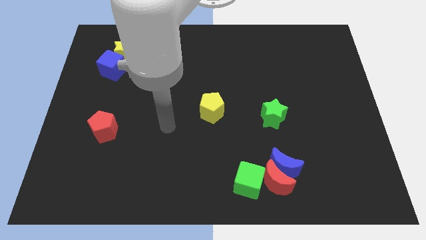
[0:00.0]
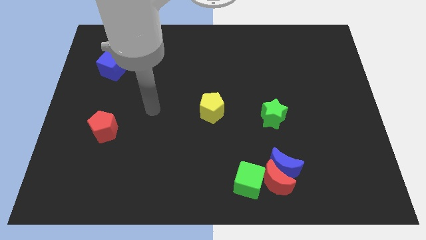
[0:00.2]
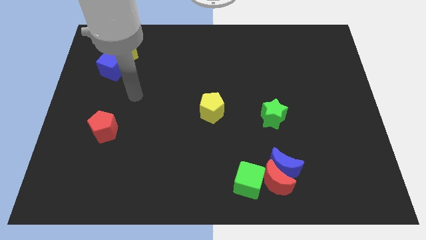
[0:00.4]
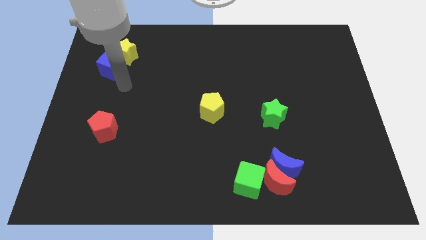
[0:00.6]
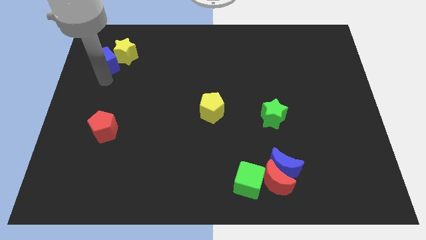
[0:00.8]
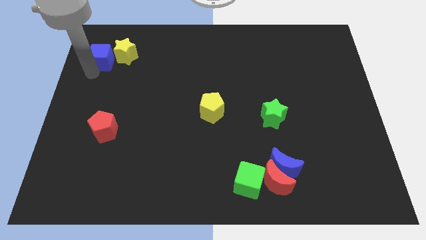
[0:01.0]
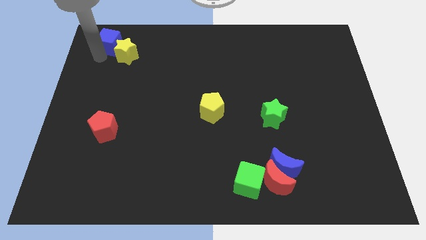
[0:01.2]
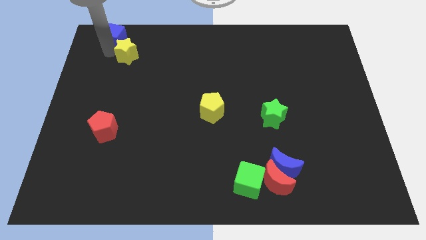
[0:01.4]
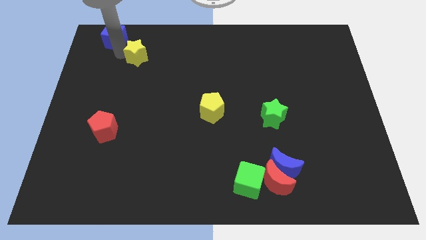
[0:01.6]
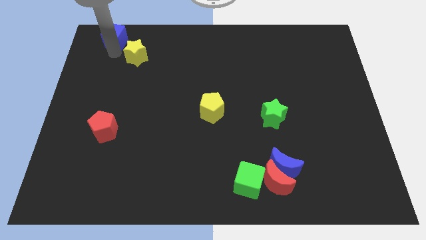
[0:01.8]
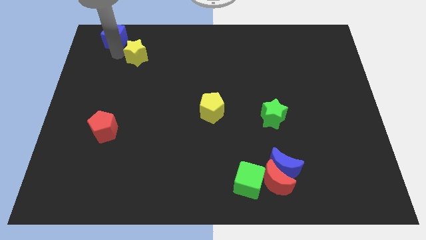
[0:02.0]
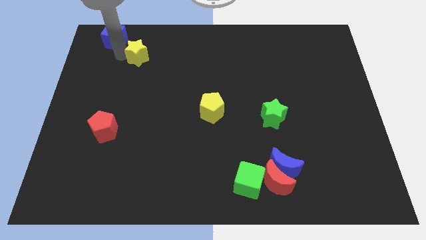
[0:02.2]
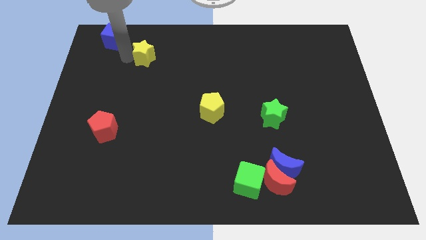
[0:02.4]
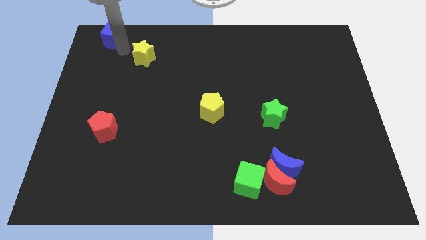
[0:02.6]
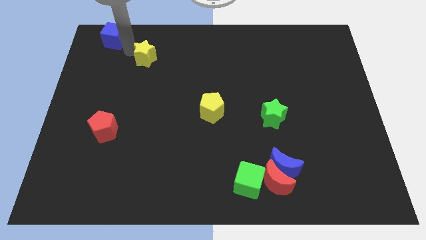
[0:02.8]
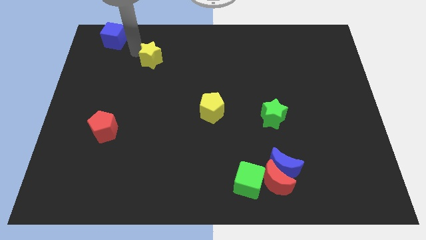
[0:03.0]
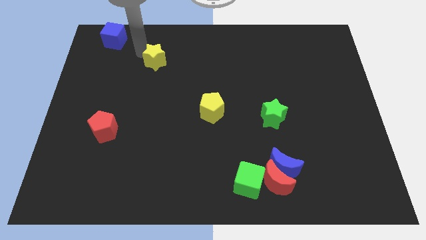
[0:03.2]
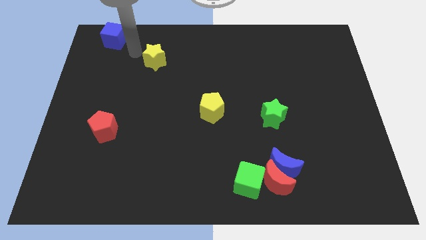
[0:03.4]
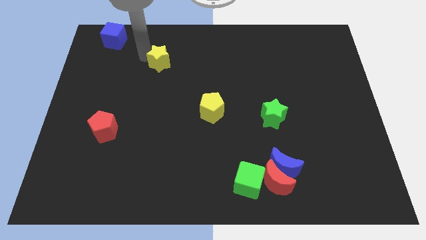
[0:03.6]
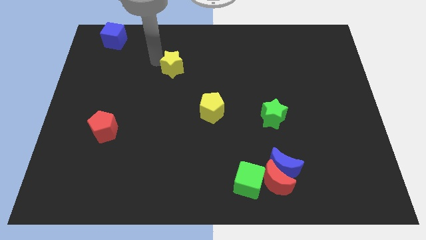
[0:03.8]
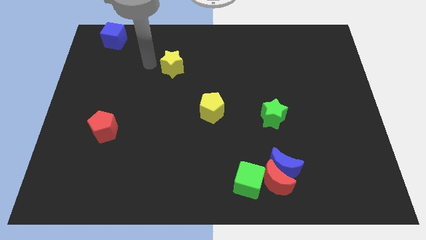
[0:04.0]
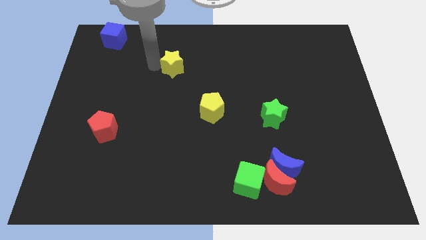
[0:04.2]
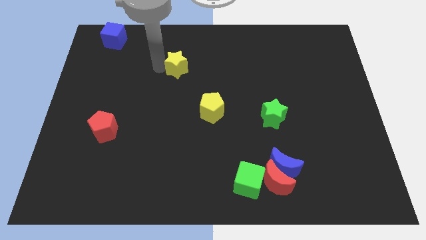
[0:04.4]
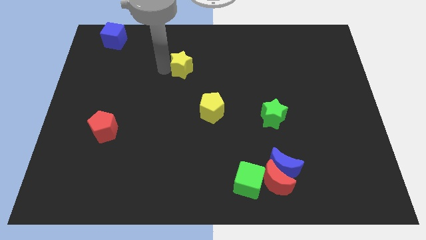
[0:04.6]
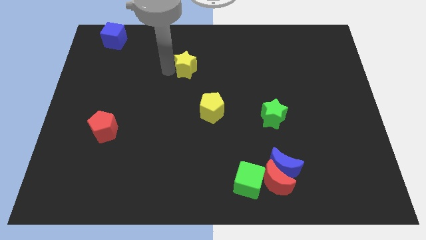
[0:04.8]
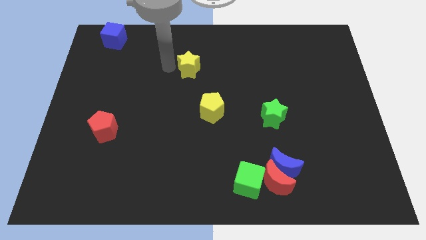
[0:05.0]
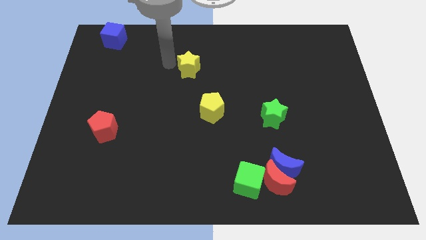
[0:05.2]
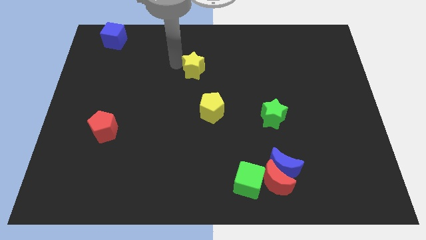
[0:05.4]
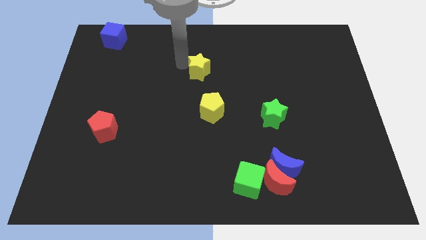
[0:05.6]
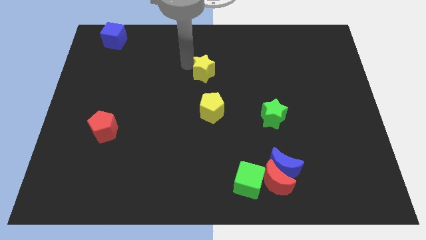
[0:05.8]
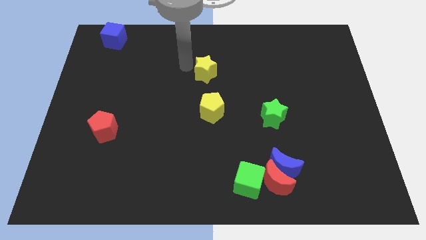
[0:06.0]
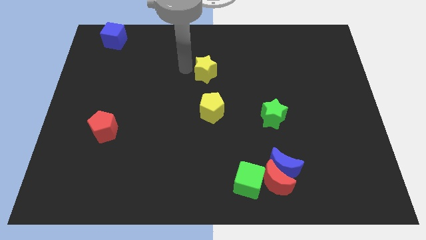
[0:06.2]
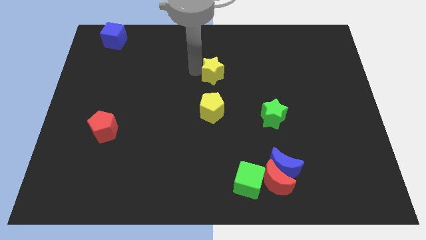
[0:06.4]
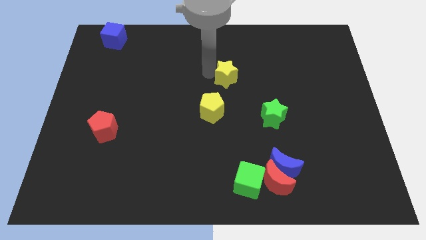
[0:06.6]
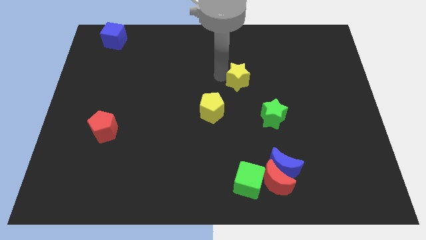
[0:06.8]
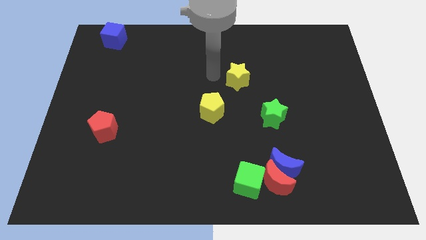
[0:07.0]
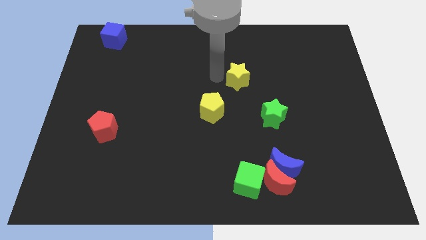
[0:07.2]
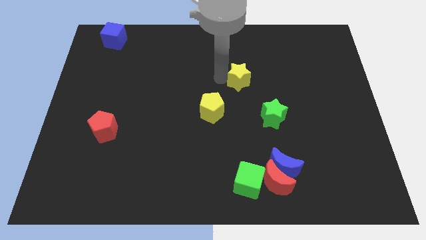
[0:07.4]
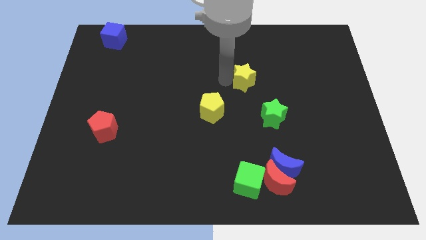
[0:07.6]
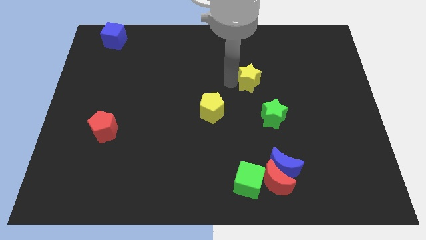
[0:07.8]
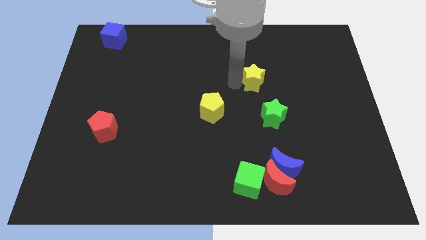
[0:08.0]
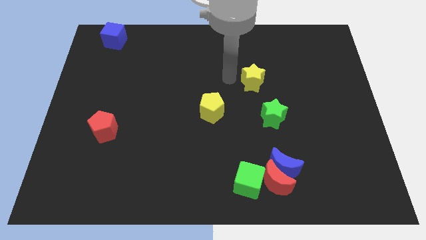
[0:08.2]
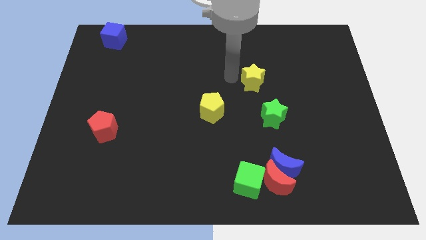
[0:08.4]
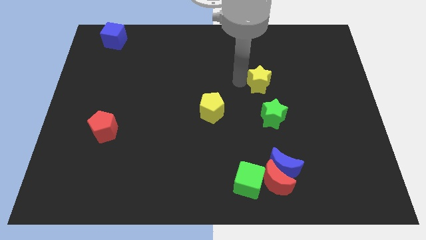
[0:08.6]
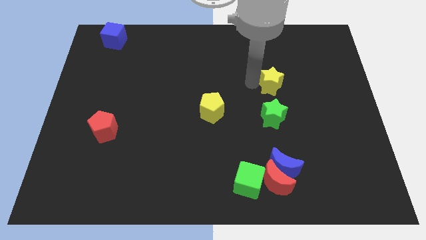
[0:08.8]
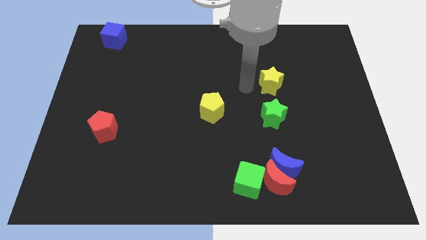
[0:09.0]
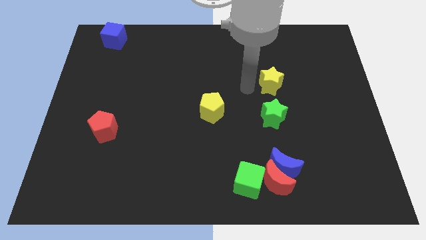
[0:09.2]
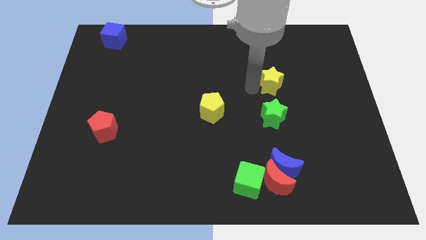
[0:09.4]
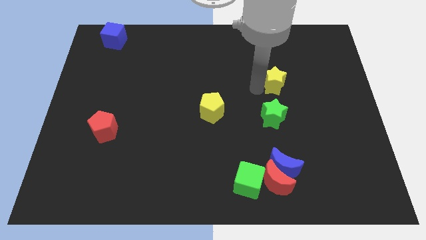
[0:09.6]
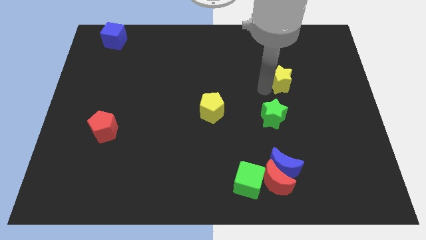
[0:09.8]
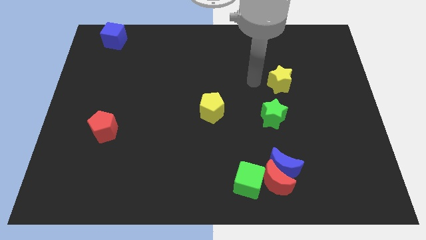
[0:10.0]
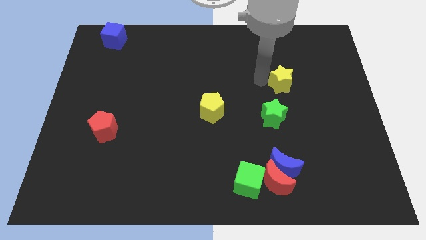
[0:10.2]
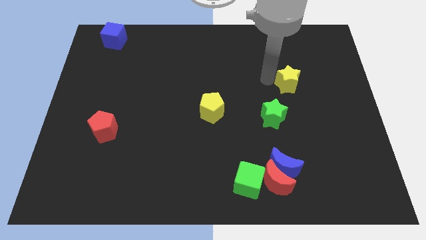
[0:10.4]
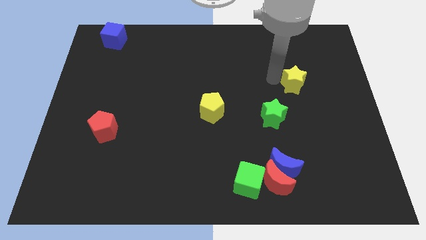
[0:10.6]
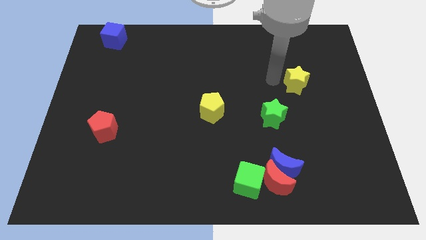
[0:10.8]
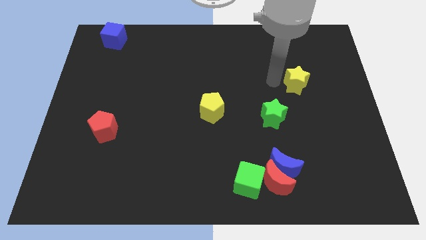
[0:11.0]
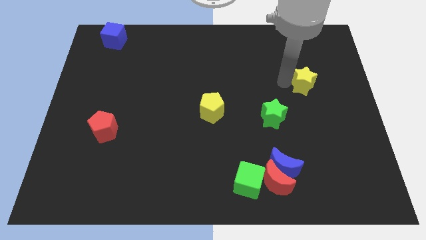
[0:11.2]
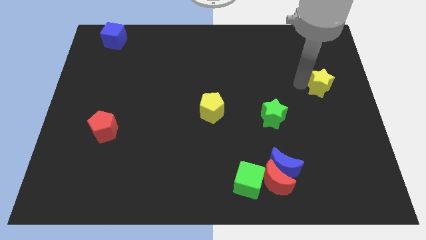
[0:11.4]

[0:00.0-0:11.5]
push the yellow star to the right side of the board

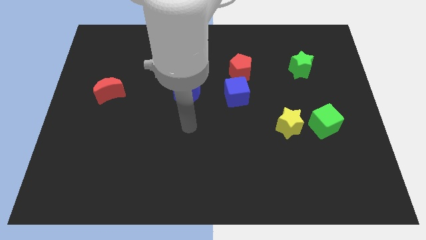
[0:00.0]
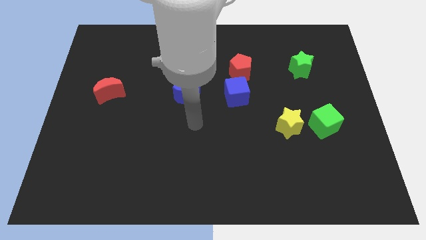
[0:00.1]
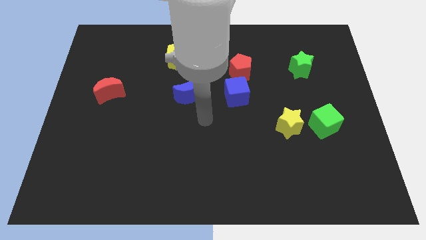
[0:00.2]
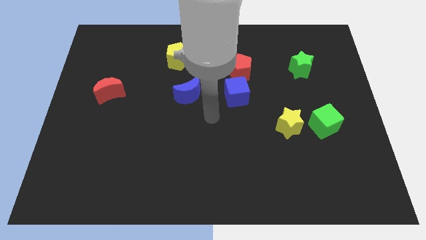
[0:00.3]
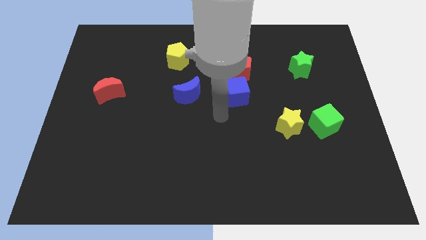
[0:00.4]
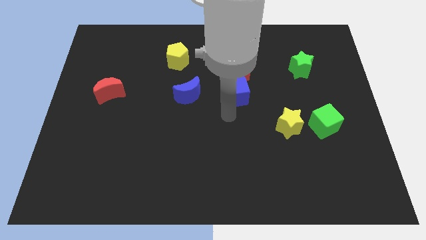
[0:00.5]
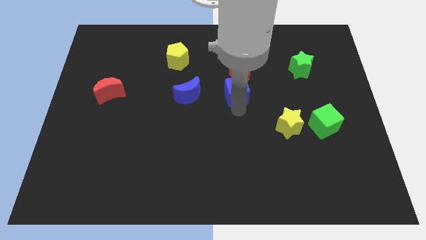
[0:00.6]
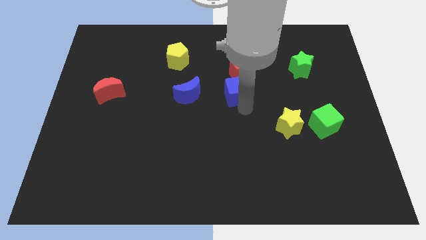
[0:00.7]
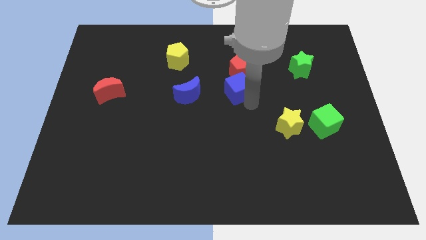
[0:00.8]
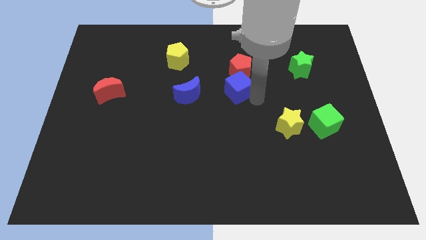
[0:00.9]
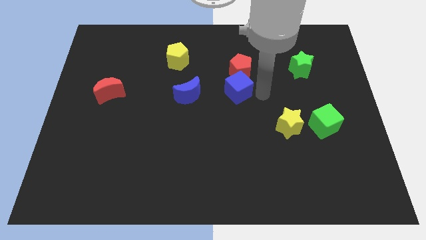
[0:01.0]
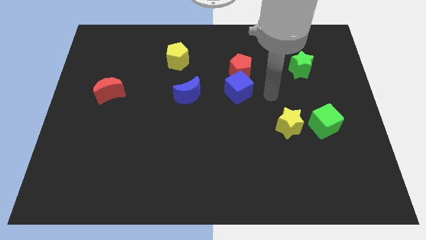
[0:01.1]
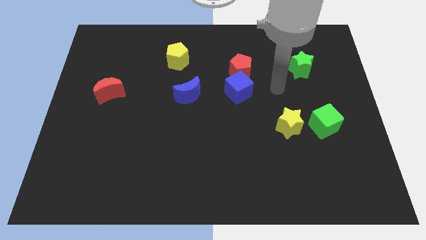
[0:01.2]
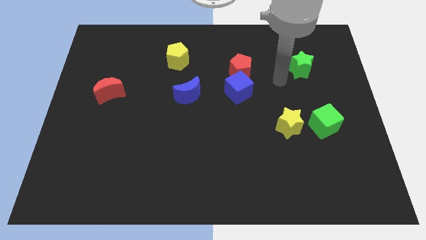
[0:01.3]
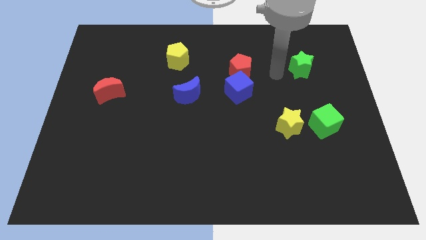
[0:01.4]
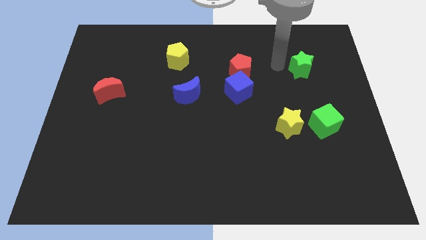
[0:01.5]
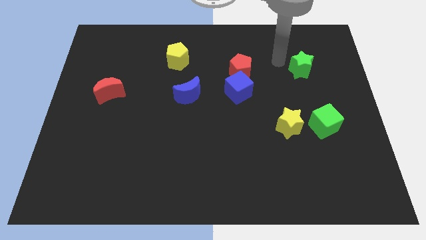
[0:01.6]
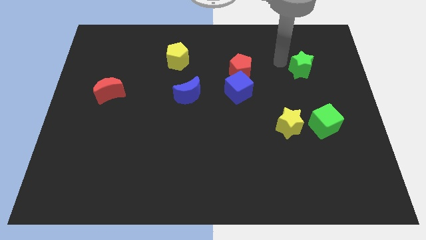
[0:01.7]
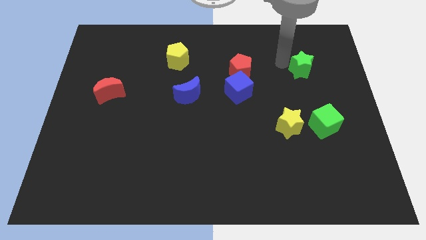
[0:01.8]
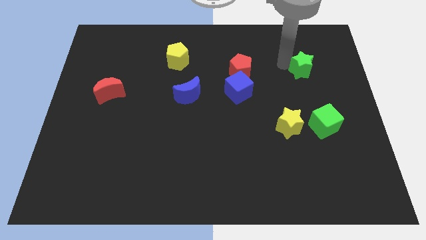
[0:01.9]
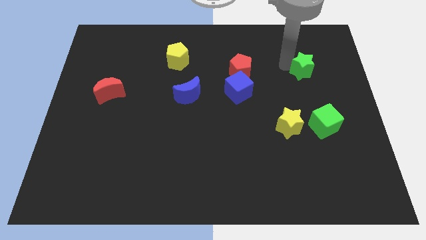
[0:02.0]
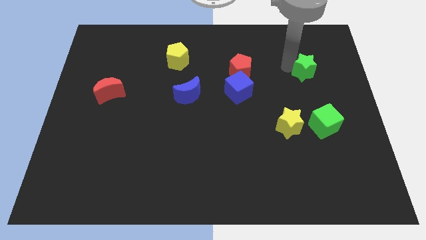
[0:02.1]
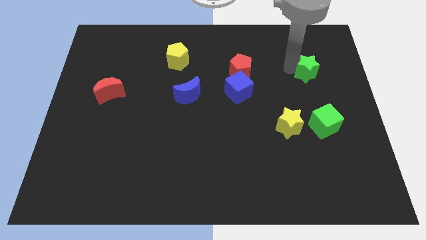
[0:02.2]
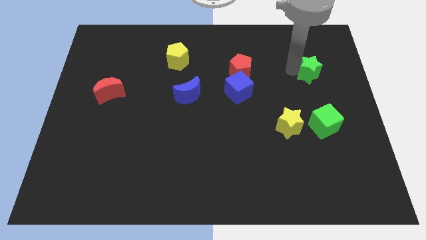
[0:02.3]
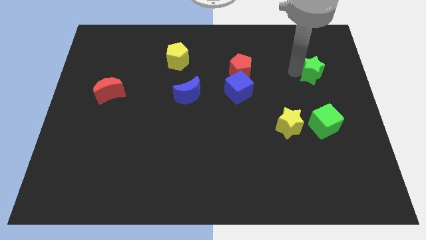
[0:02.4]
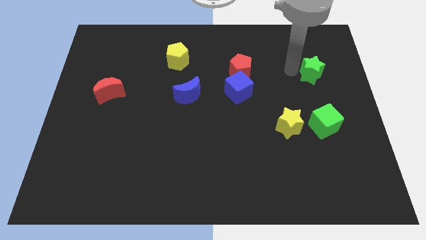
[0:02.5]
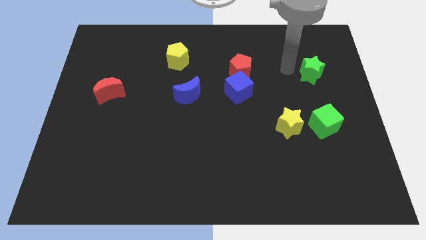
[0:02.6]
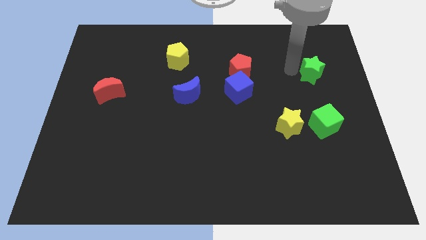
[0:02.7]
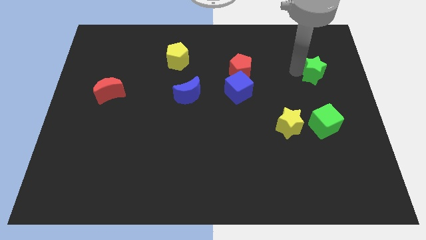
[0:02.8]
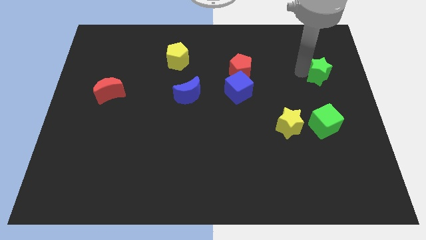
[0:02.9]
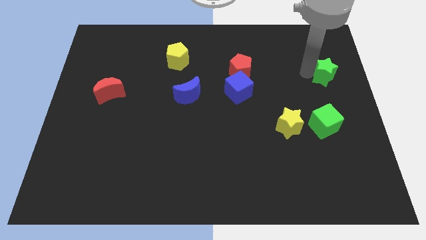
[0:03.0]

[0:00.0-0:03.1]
put the green star to the right side of the board
